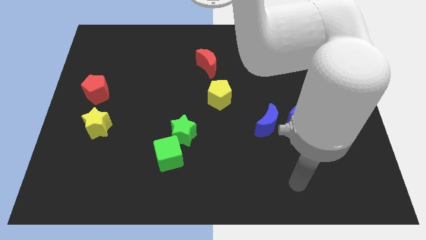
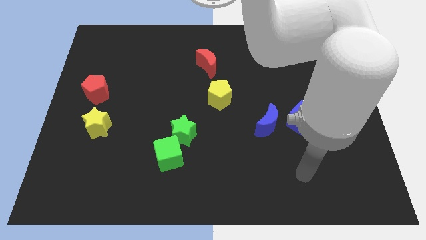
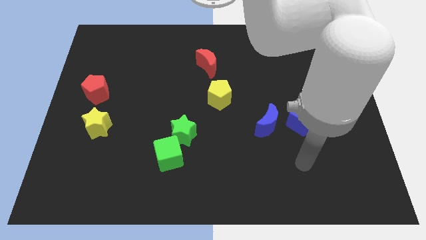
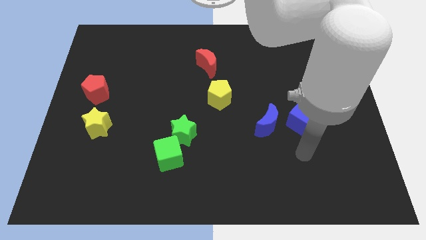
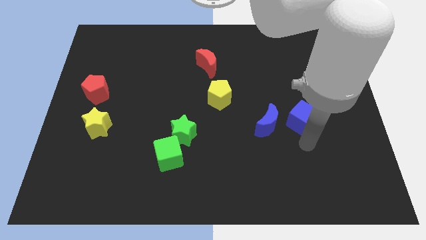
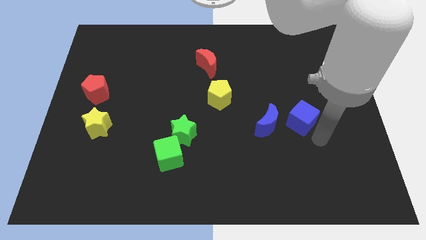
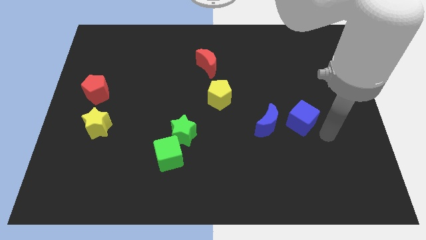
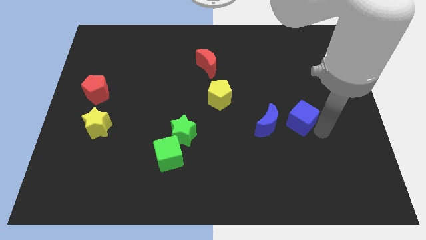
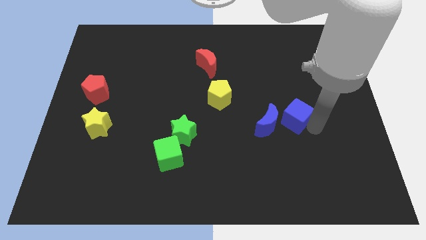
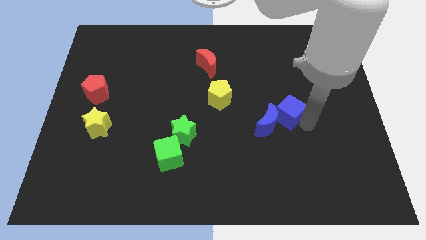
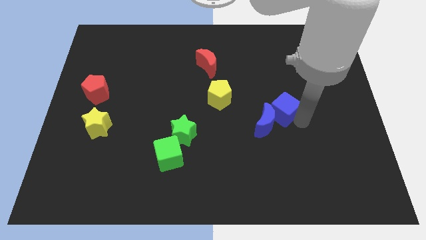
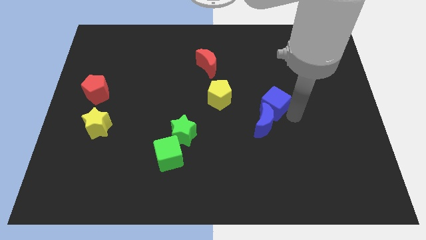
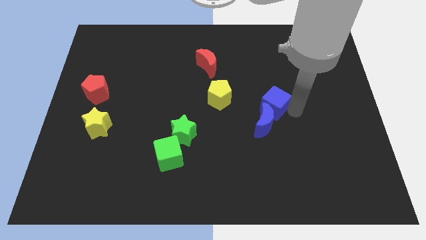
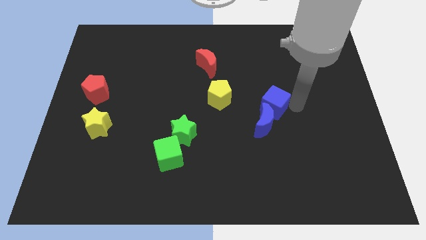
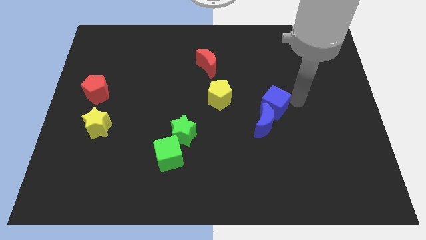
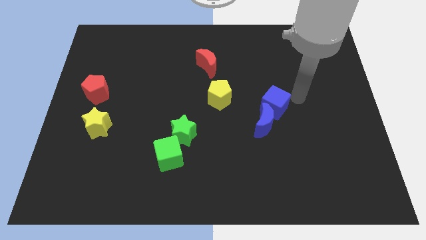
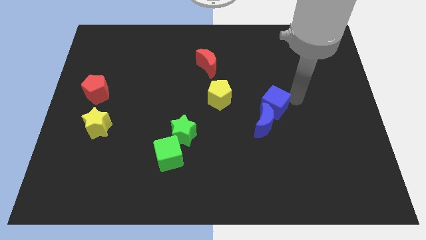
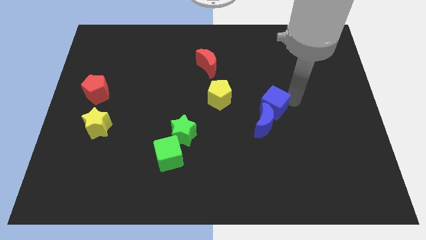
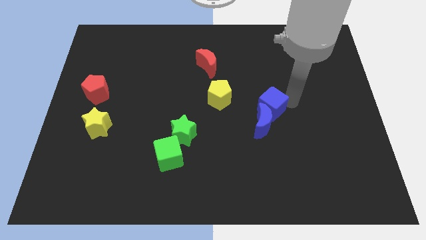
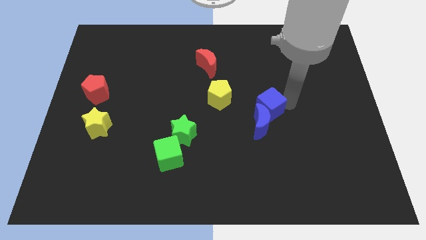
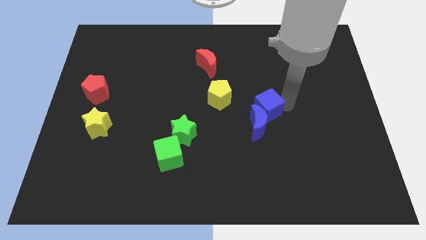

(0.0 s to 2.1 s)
slide the blue cube to the left a little bit

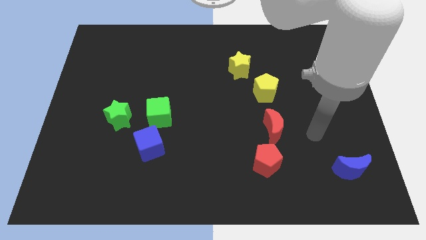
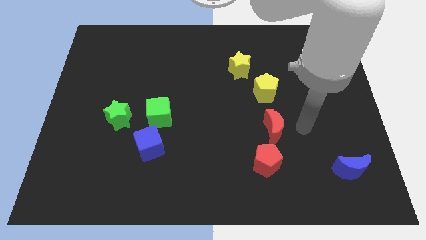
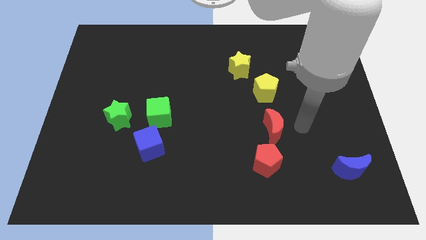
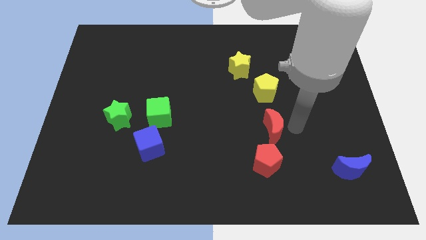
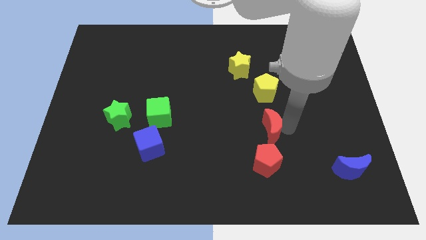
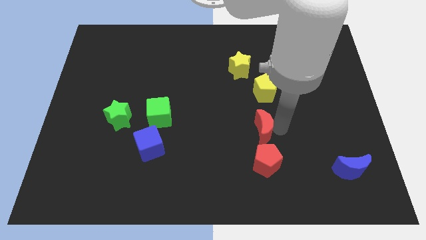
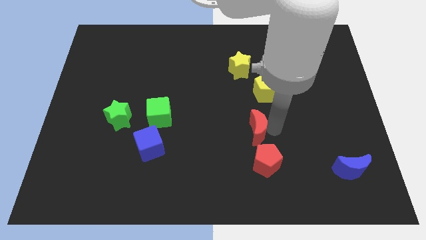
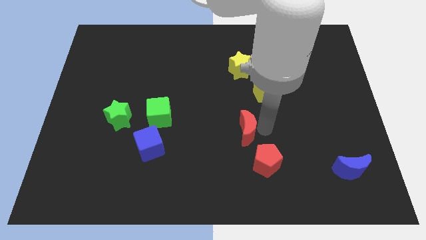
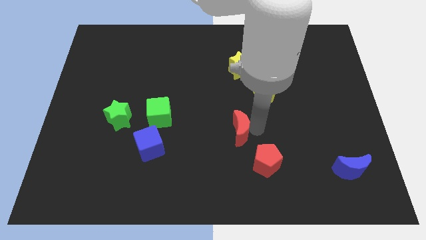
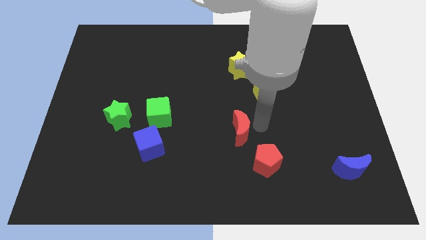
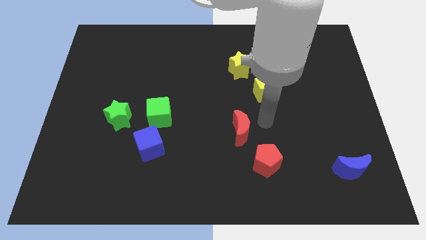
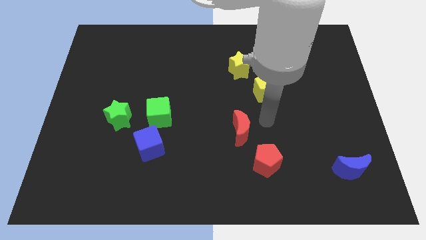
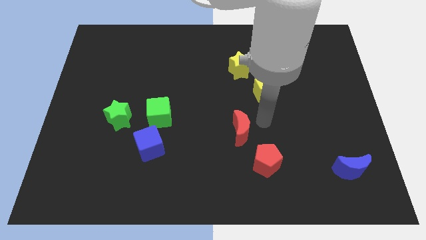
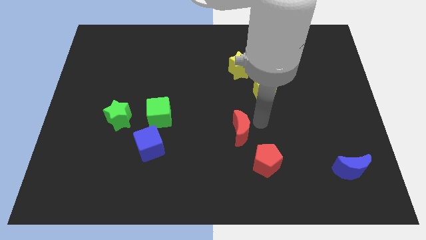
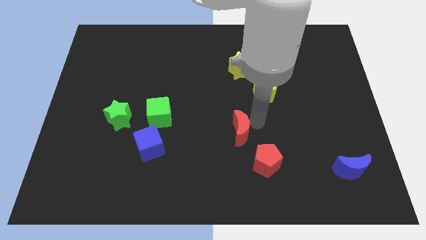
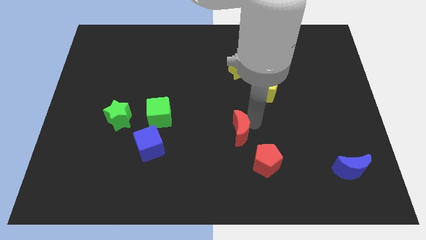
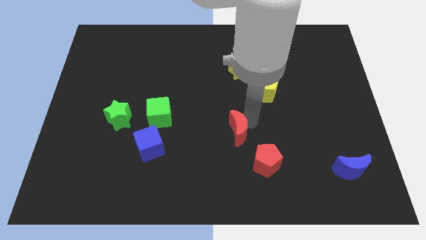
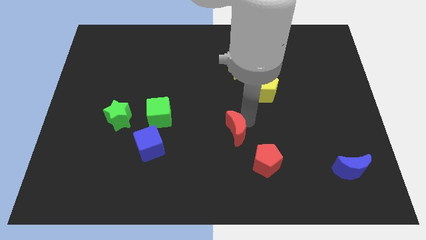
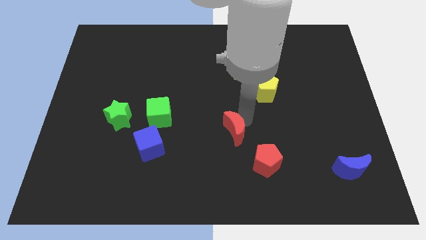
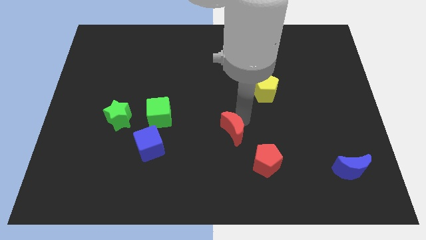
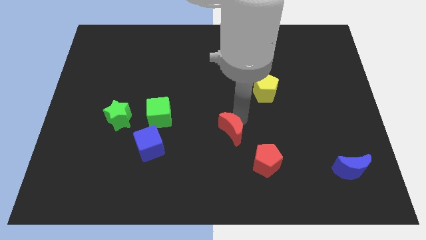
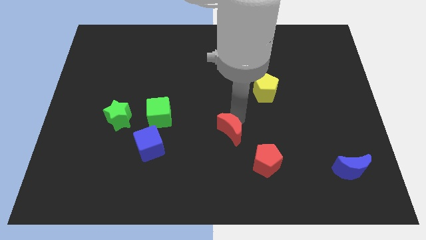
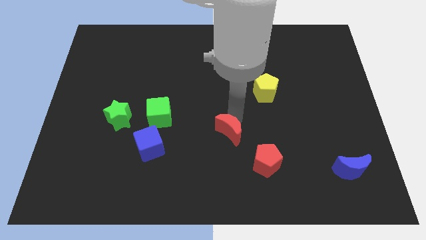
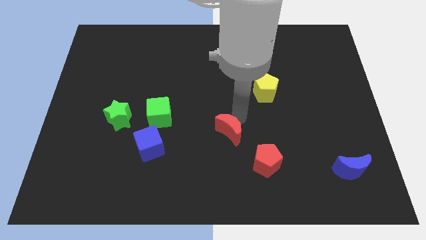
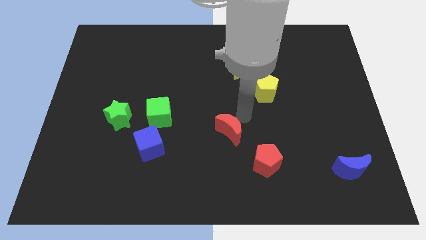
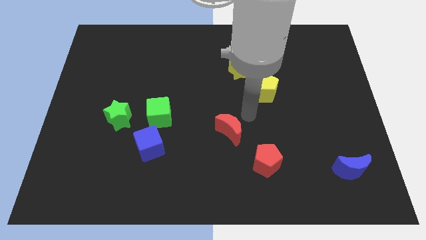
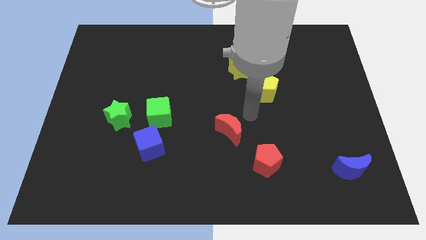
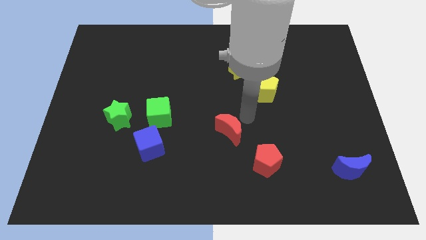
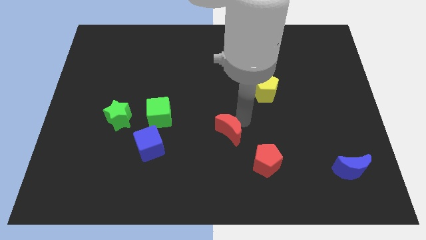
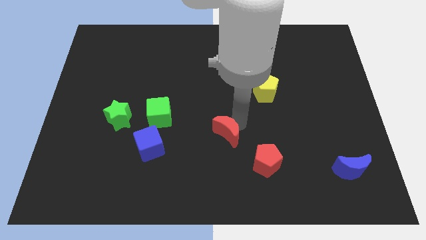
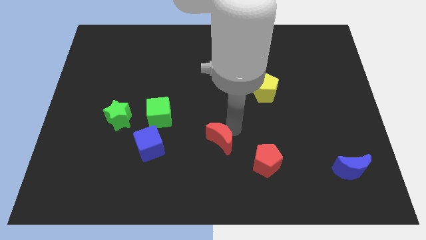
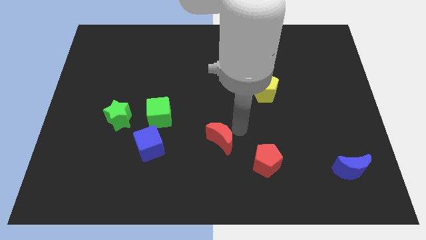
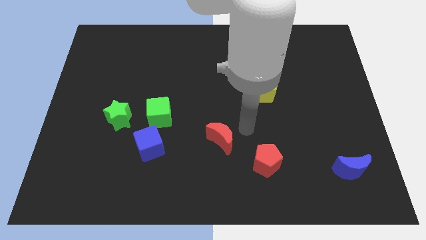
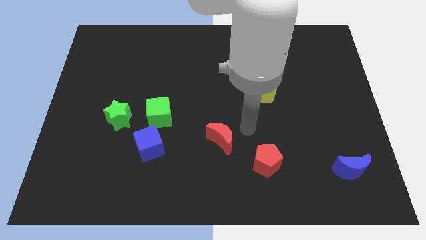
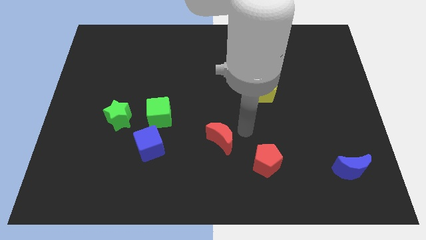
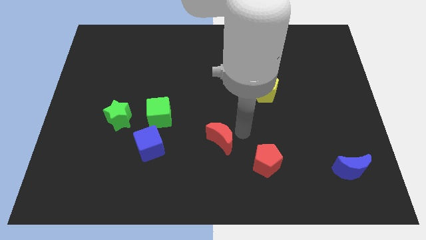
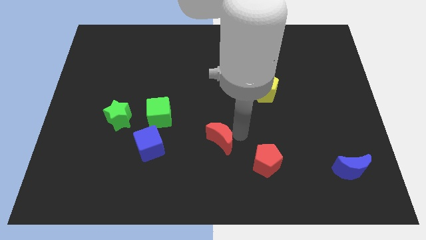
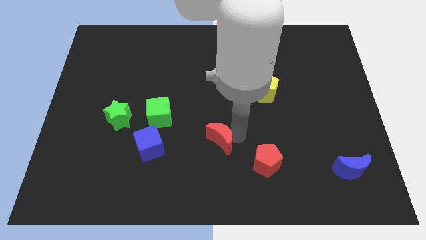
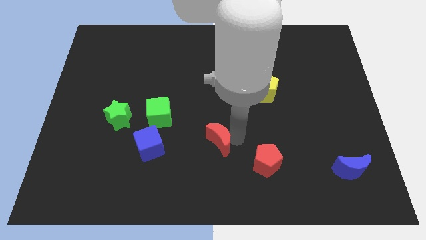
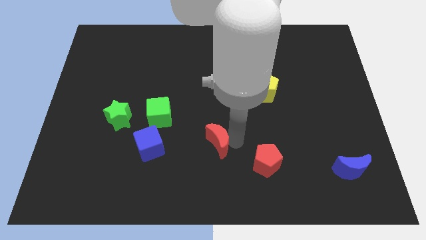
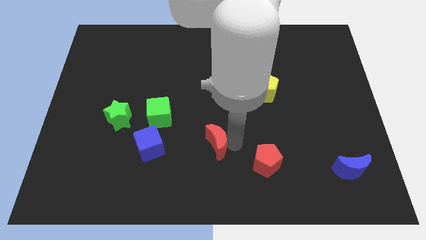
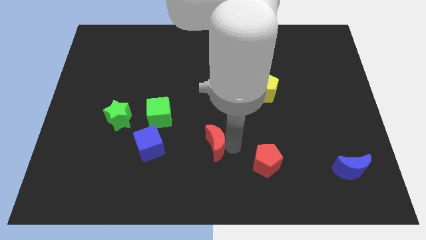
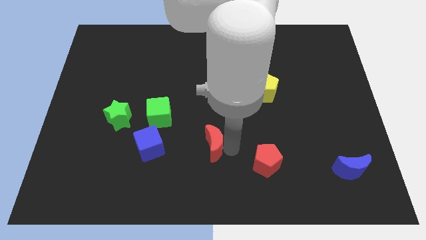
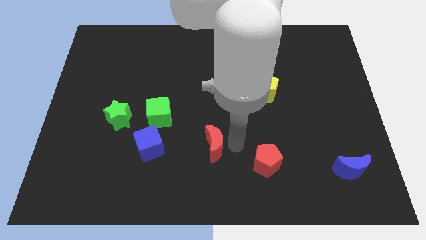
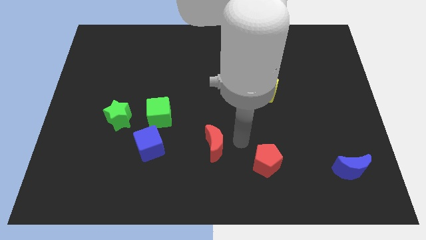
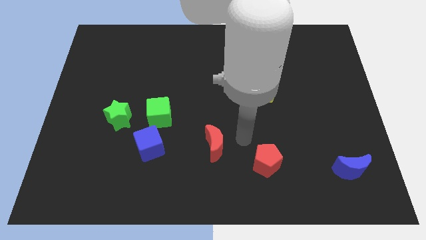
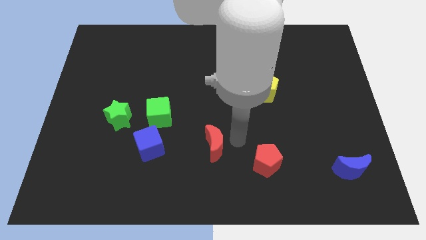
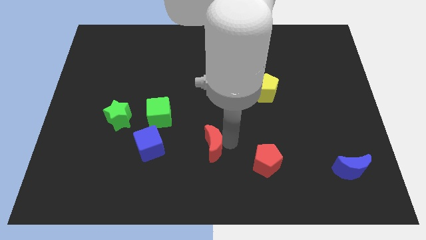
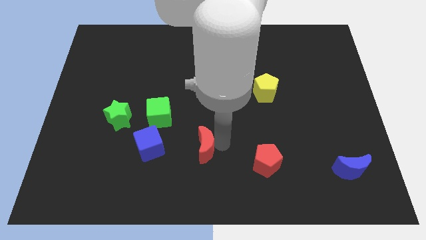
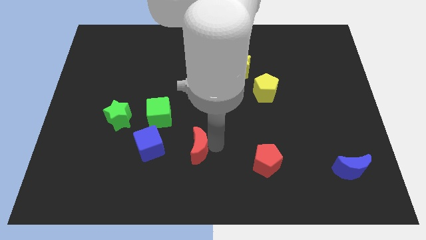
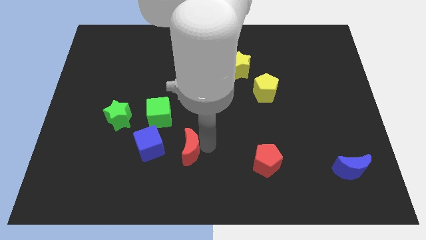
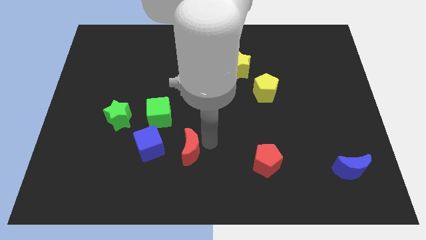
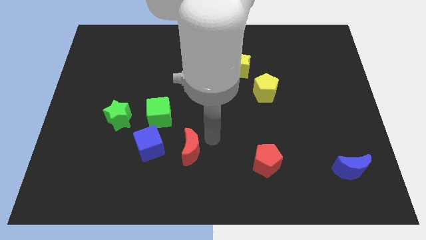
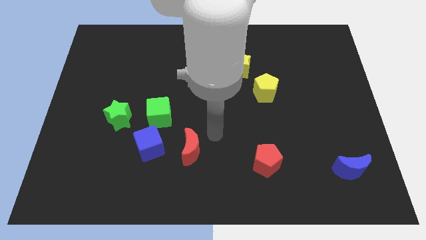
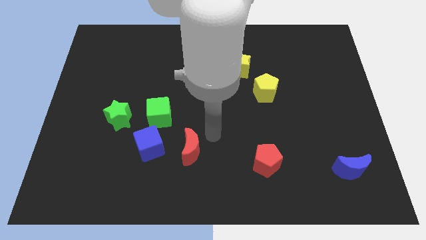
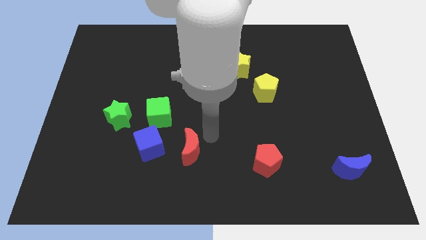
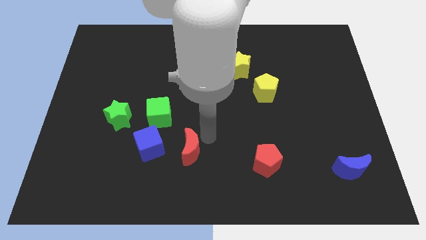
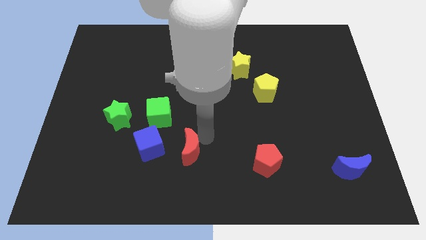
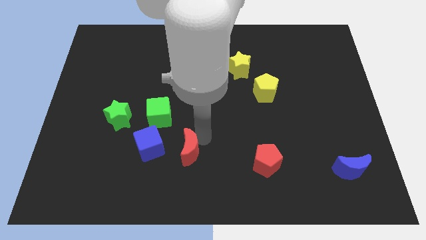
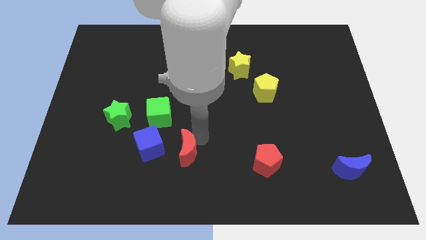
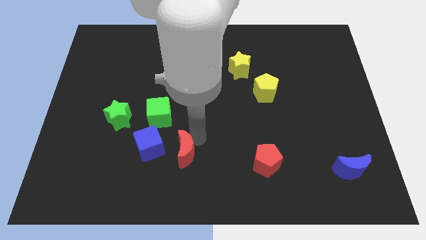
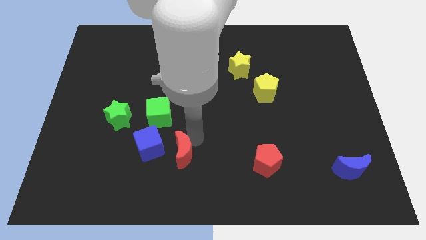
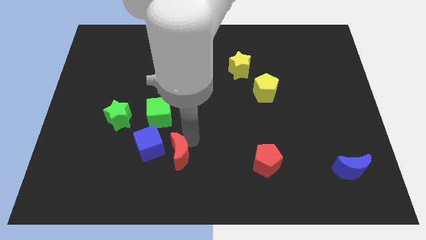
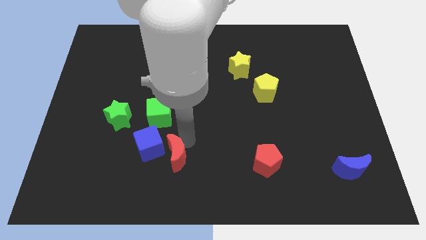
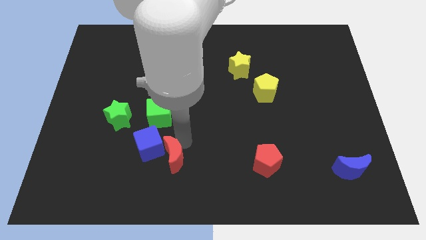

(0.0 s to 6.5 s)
move the red moon to the left
